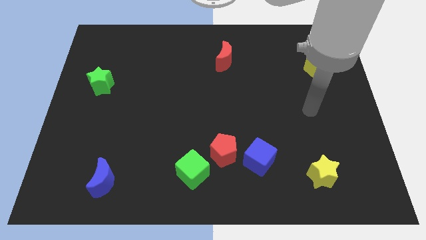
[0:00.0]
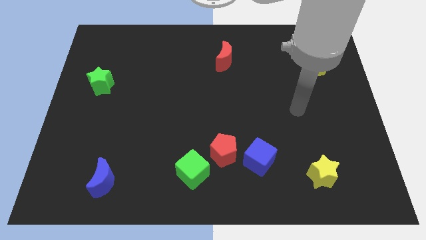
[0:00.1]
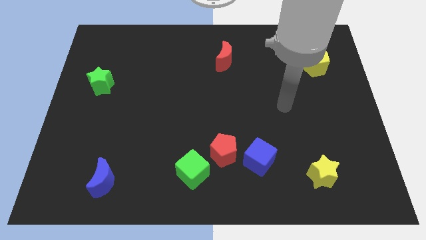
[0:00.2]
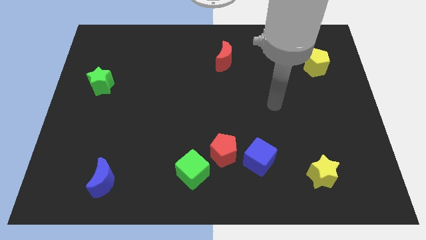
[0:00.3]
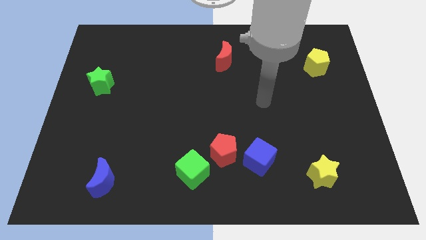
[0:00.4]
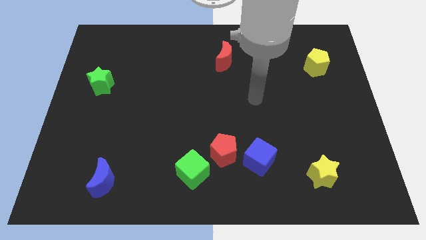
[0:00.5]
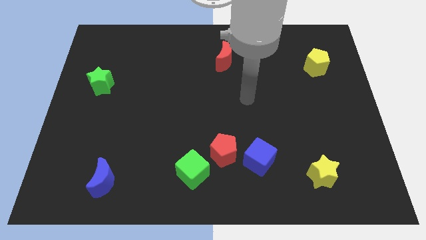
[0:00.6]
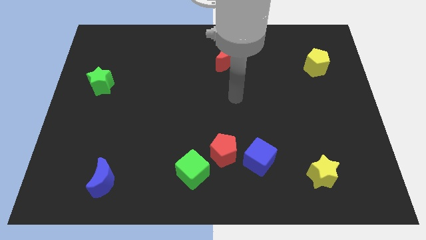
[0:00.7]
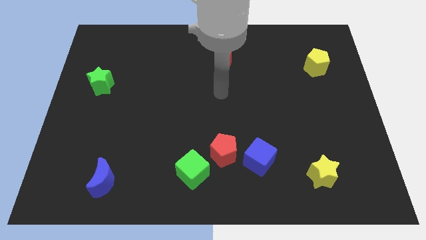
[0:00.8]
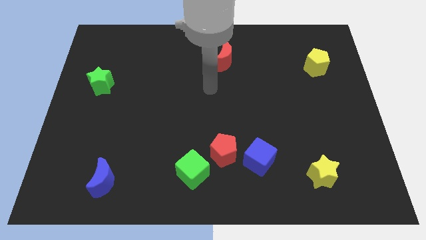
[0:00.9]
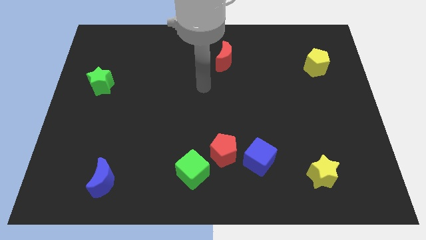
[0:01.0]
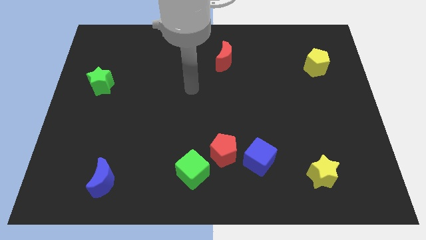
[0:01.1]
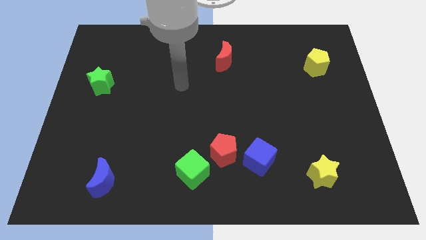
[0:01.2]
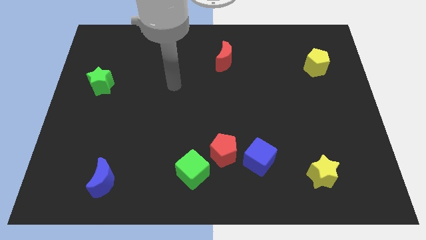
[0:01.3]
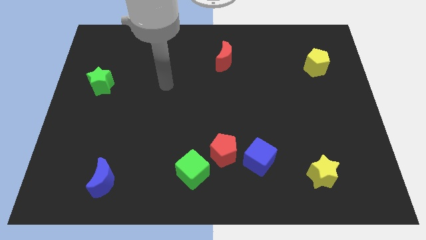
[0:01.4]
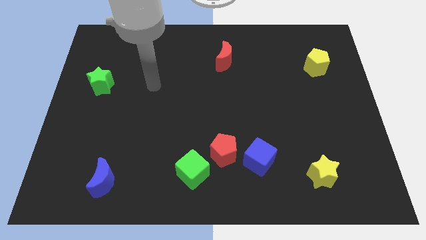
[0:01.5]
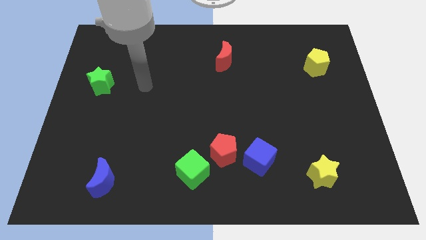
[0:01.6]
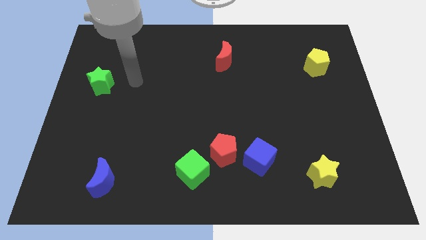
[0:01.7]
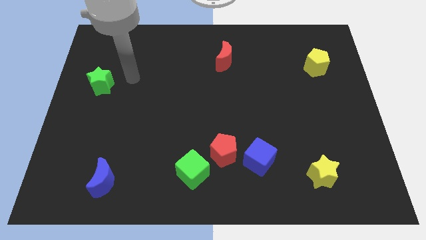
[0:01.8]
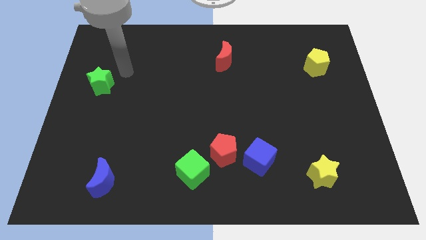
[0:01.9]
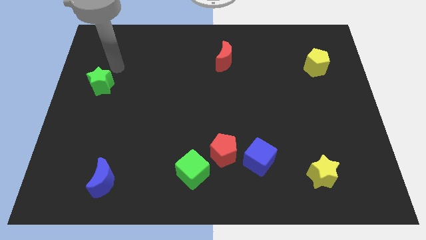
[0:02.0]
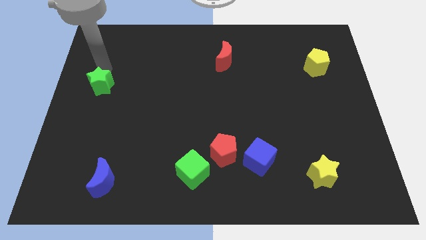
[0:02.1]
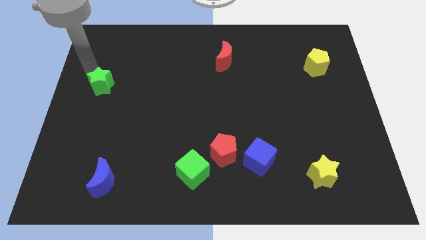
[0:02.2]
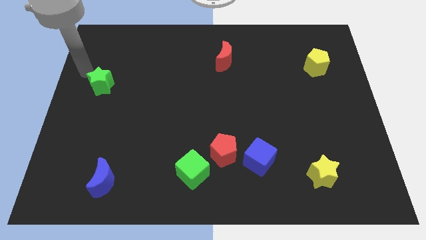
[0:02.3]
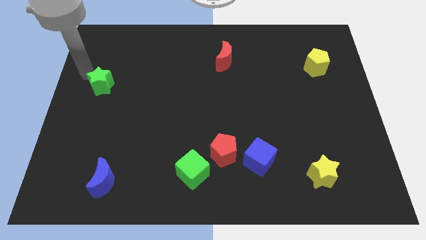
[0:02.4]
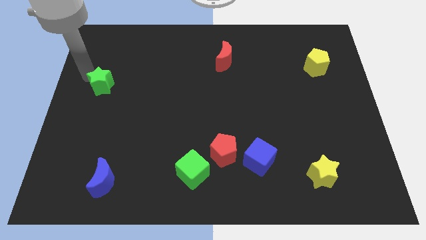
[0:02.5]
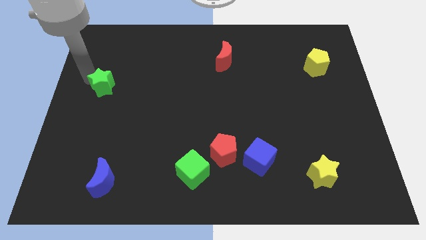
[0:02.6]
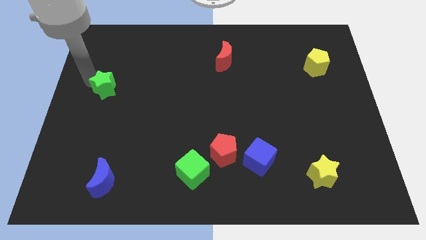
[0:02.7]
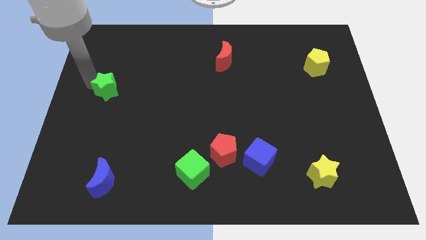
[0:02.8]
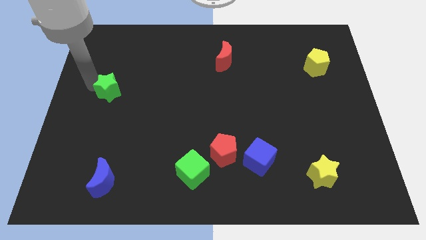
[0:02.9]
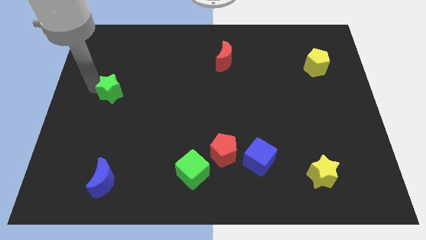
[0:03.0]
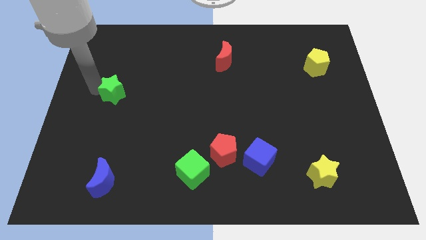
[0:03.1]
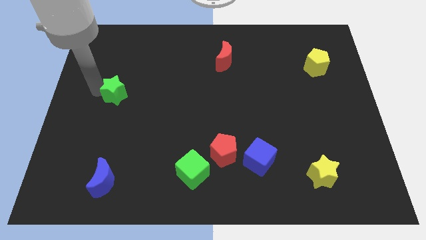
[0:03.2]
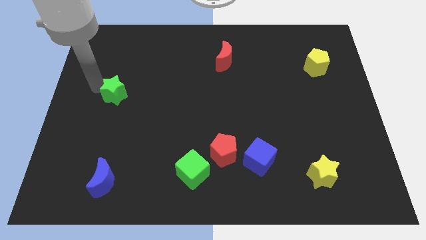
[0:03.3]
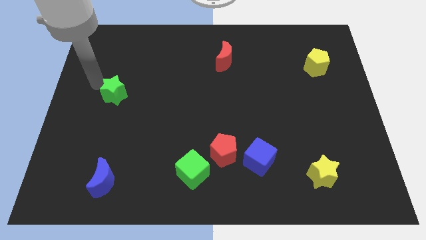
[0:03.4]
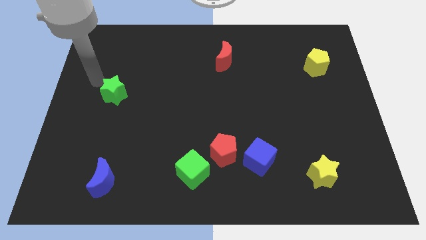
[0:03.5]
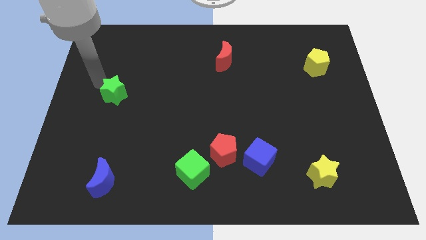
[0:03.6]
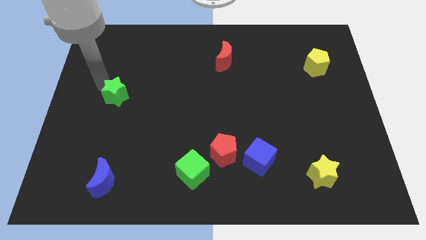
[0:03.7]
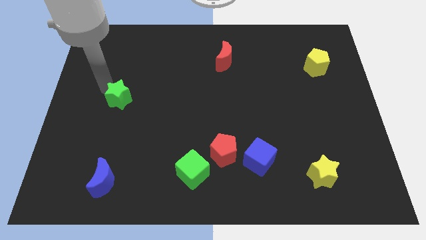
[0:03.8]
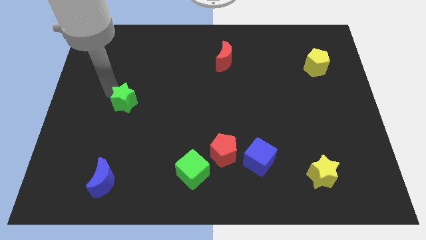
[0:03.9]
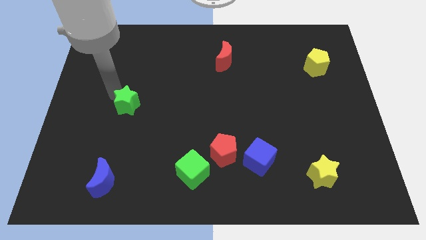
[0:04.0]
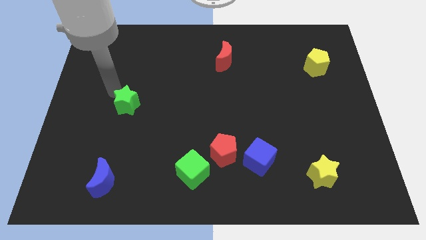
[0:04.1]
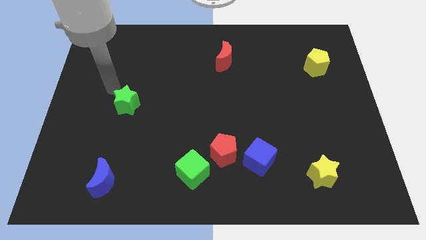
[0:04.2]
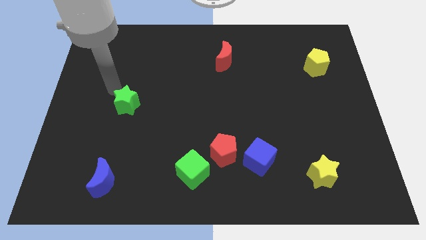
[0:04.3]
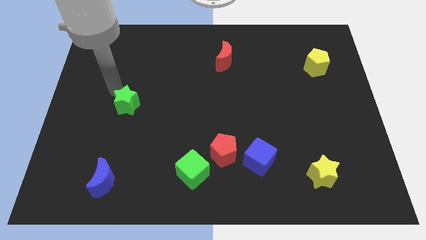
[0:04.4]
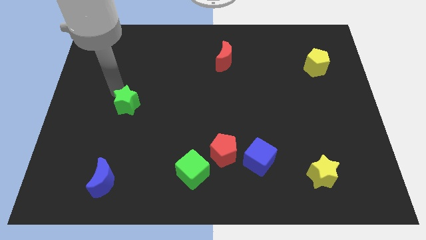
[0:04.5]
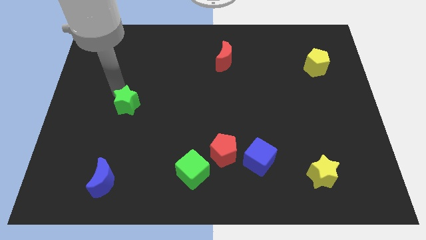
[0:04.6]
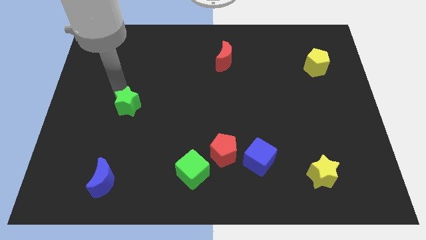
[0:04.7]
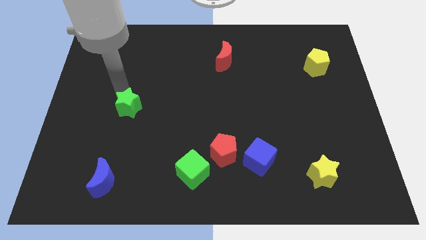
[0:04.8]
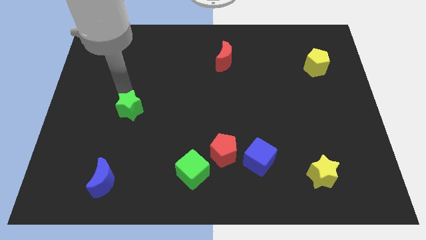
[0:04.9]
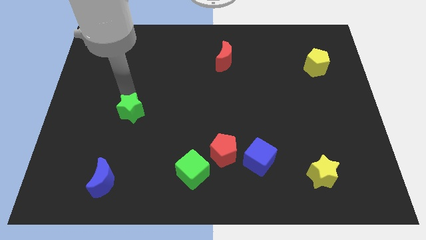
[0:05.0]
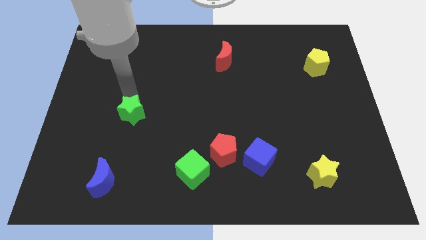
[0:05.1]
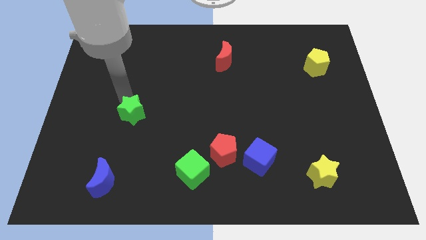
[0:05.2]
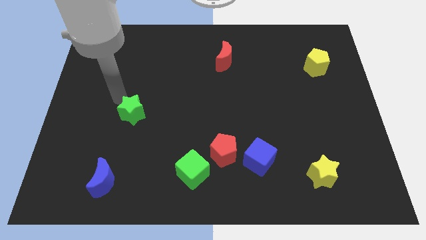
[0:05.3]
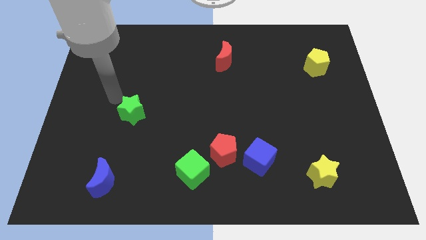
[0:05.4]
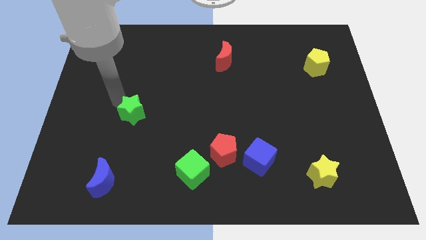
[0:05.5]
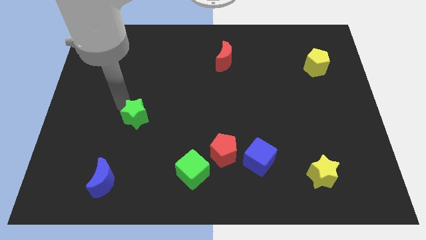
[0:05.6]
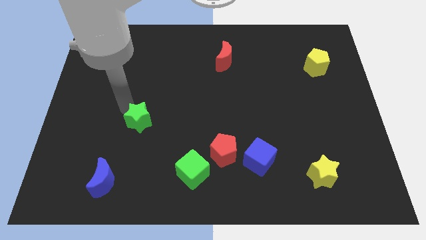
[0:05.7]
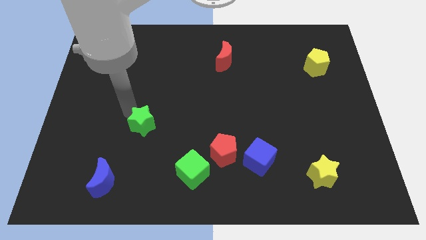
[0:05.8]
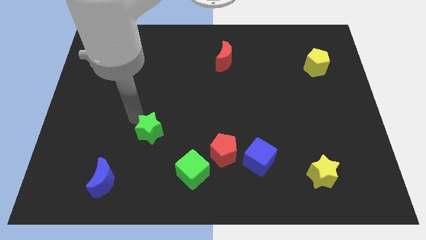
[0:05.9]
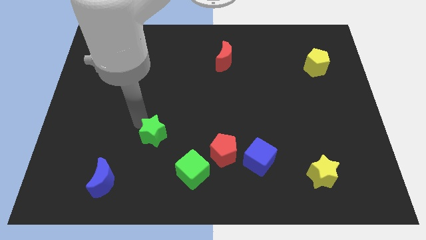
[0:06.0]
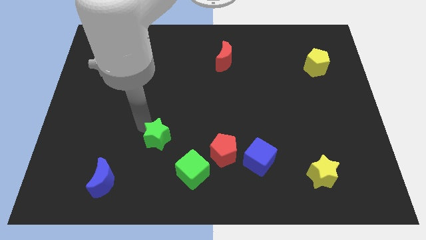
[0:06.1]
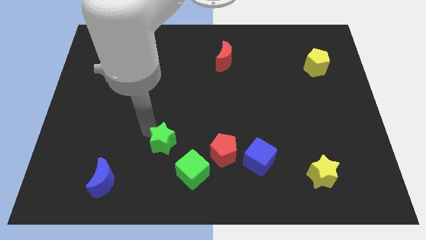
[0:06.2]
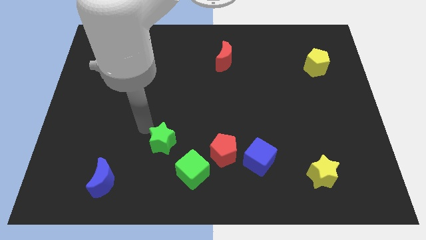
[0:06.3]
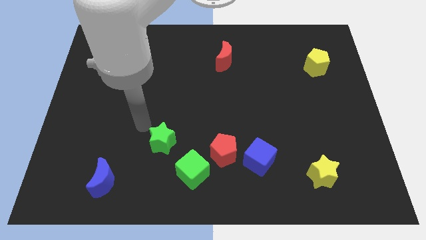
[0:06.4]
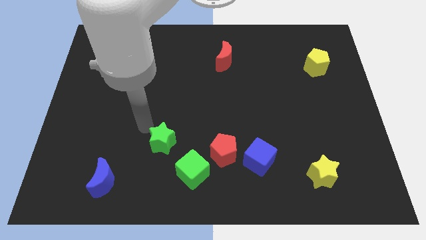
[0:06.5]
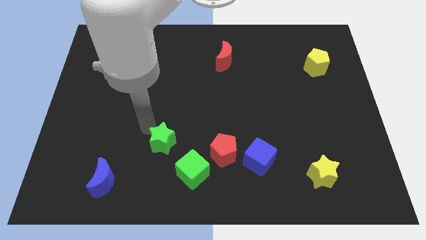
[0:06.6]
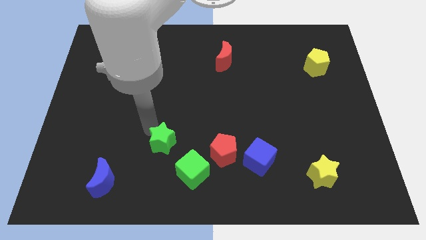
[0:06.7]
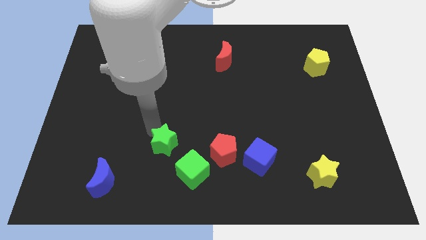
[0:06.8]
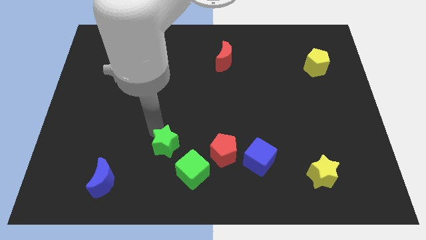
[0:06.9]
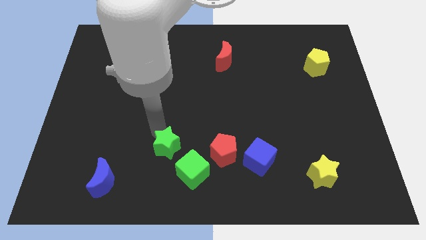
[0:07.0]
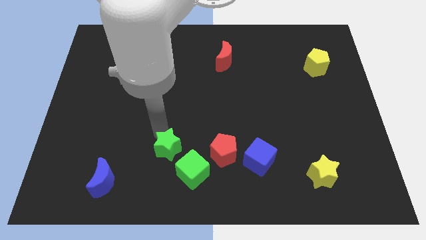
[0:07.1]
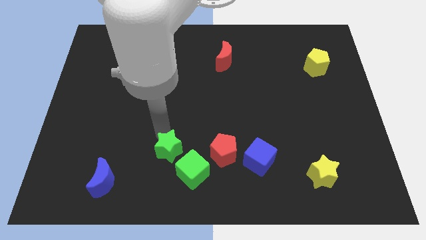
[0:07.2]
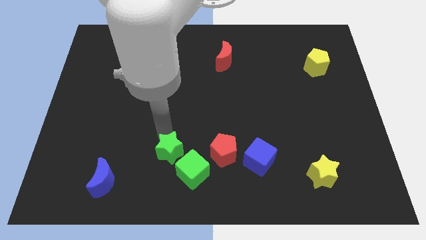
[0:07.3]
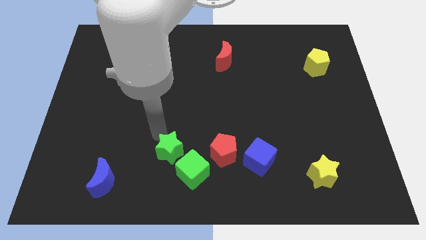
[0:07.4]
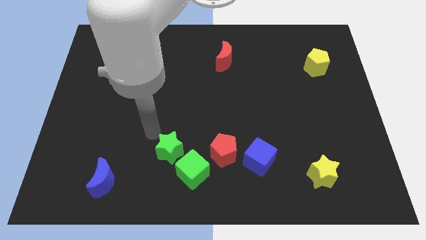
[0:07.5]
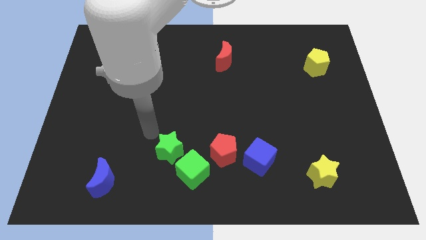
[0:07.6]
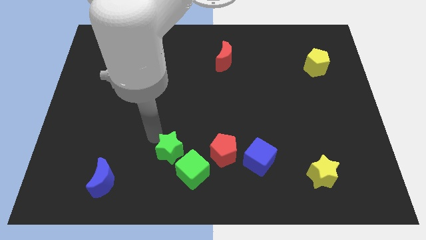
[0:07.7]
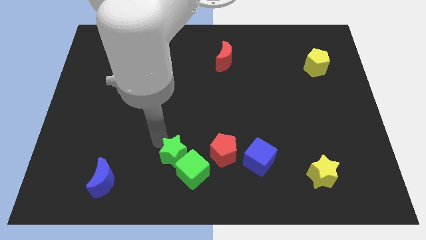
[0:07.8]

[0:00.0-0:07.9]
slide the green star next to the green cube
